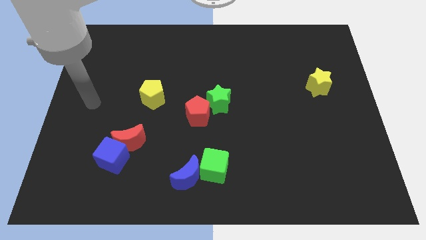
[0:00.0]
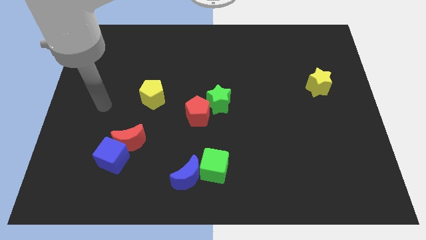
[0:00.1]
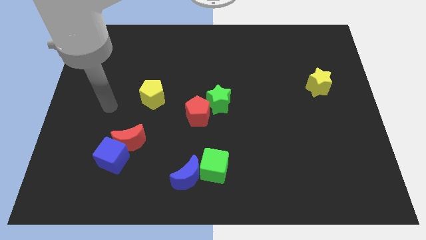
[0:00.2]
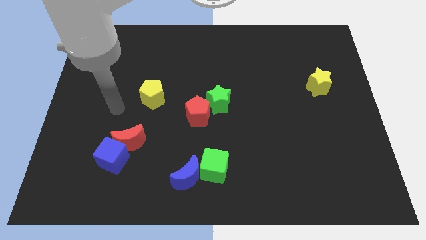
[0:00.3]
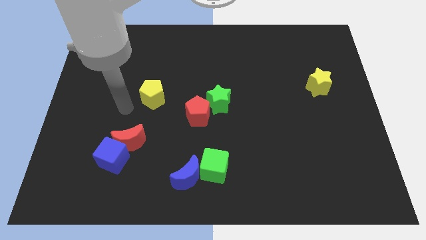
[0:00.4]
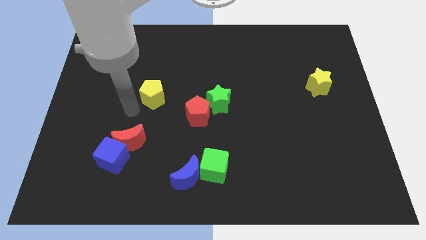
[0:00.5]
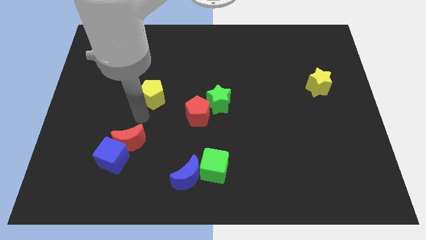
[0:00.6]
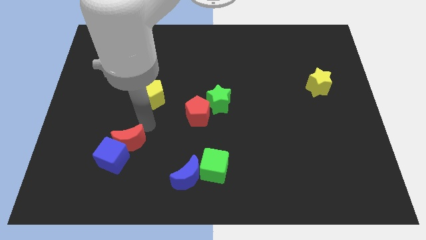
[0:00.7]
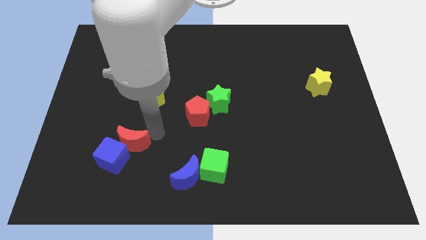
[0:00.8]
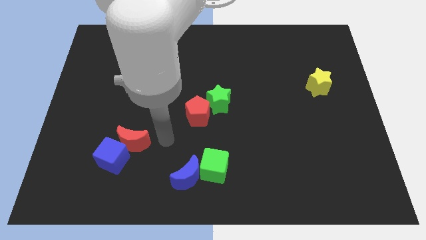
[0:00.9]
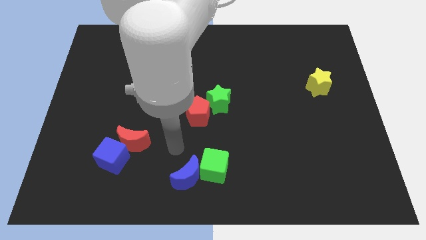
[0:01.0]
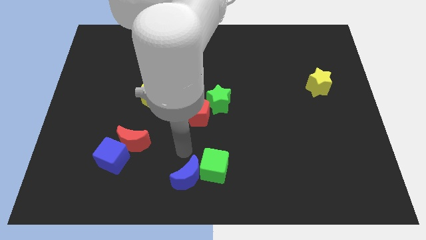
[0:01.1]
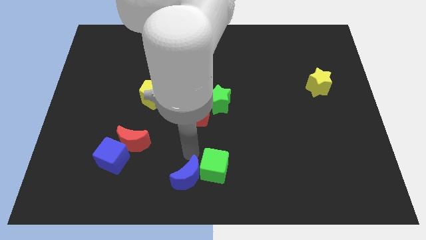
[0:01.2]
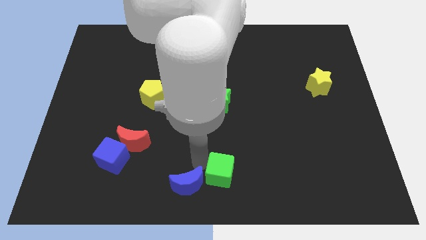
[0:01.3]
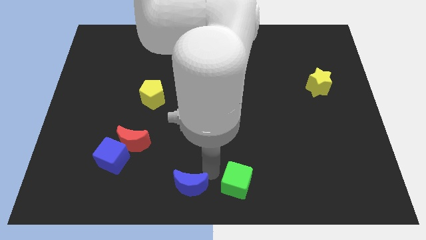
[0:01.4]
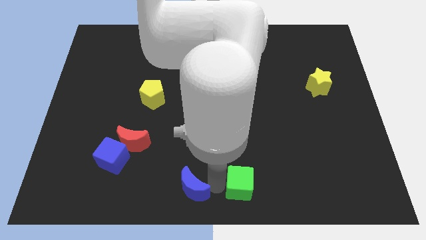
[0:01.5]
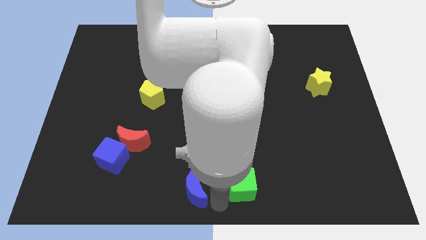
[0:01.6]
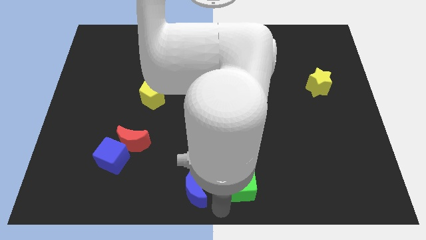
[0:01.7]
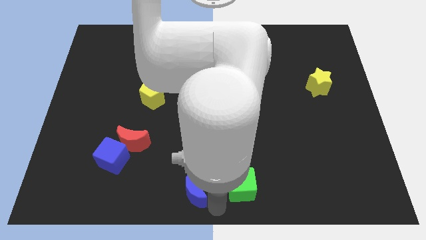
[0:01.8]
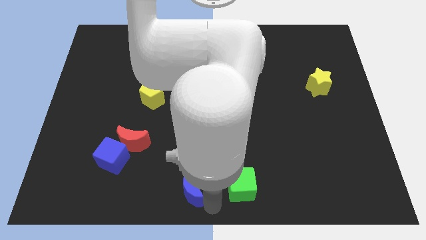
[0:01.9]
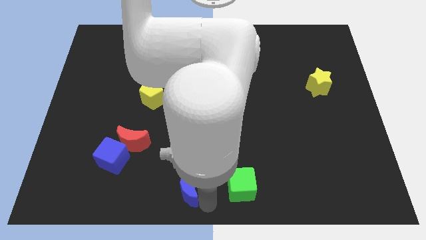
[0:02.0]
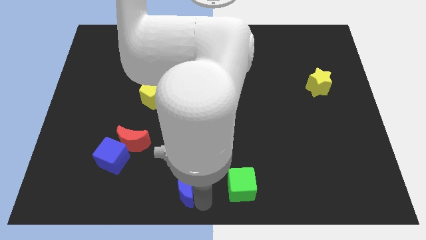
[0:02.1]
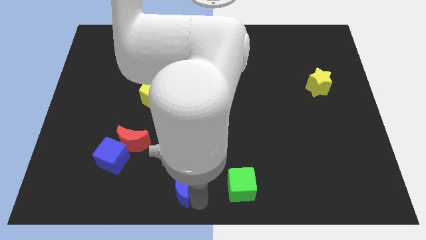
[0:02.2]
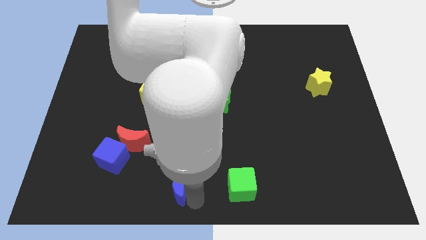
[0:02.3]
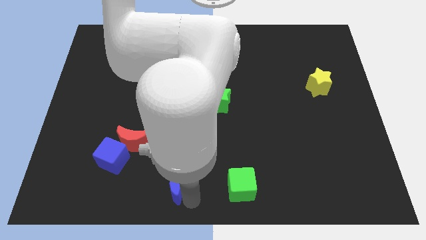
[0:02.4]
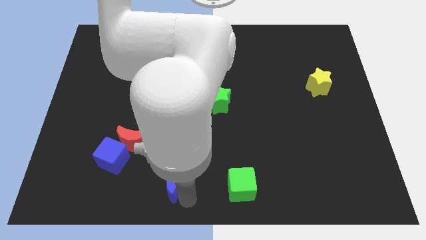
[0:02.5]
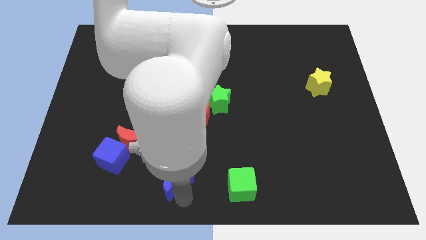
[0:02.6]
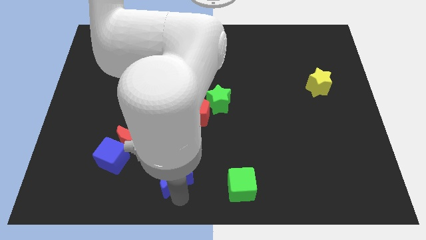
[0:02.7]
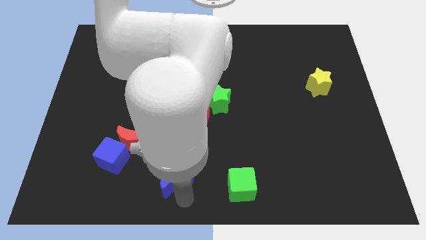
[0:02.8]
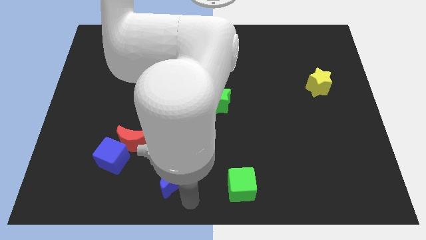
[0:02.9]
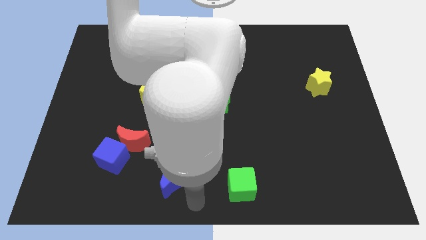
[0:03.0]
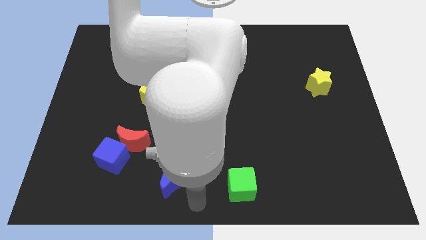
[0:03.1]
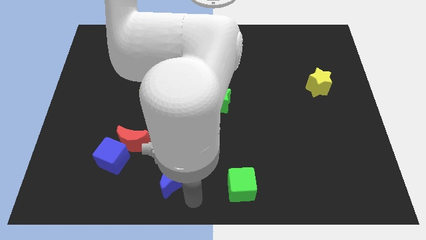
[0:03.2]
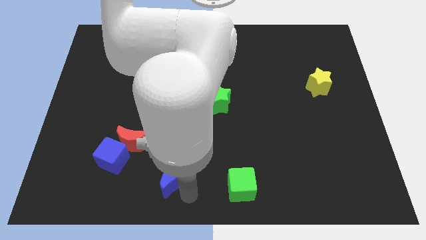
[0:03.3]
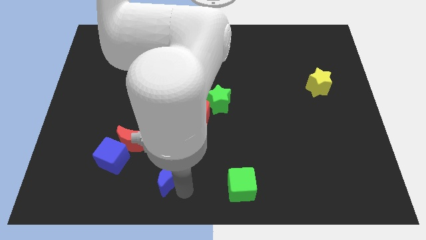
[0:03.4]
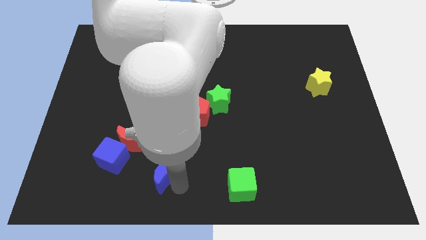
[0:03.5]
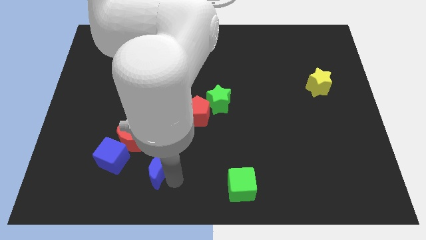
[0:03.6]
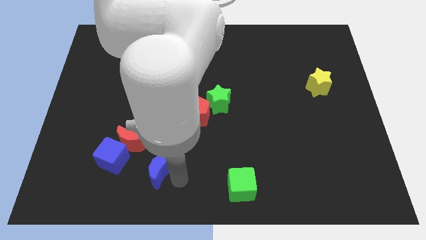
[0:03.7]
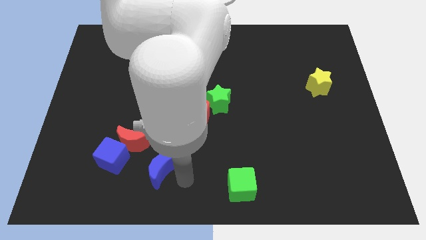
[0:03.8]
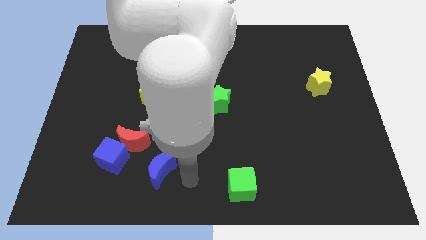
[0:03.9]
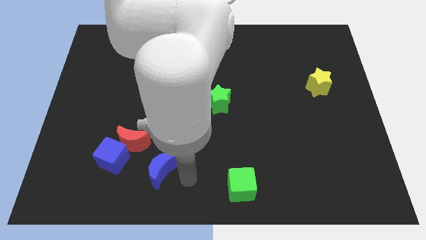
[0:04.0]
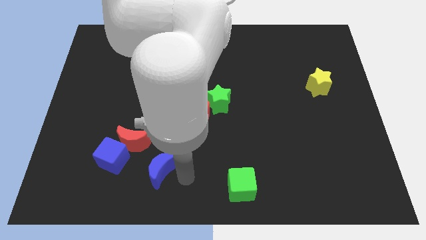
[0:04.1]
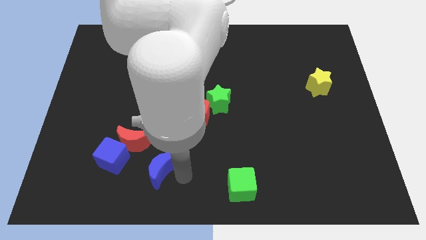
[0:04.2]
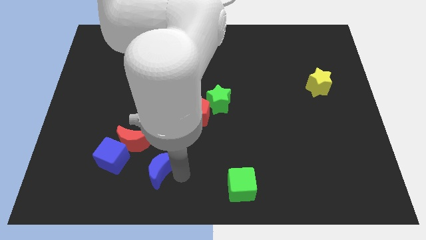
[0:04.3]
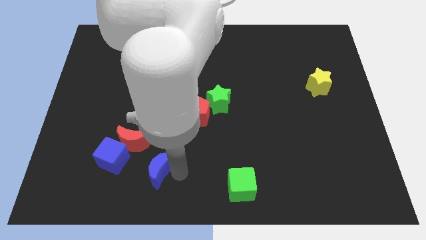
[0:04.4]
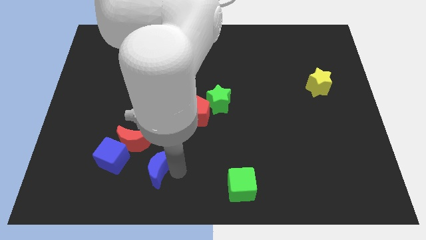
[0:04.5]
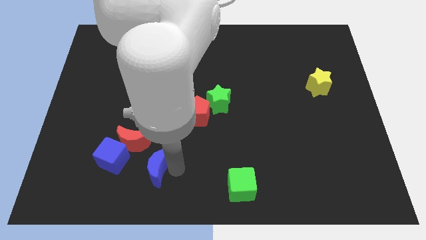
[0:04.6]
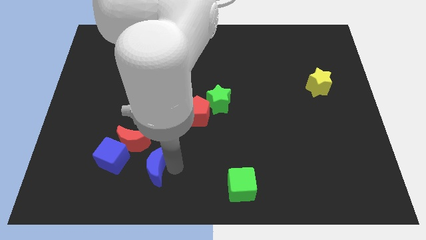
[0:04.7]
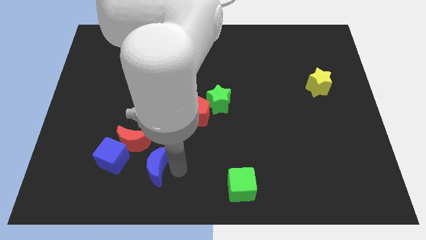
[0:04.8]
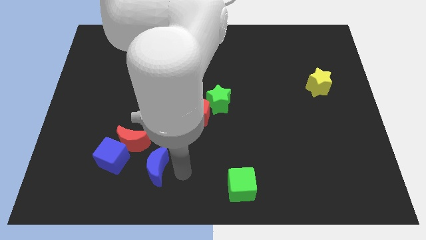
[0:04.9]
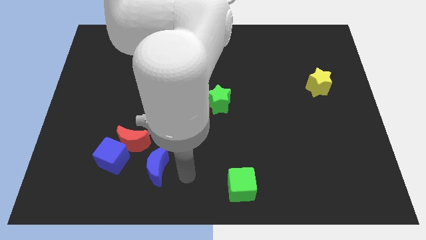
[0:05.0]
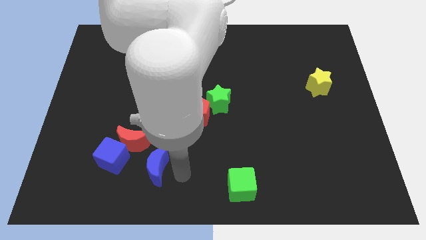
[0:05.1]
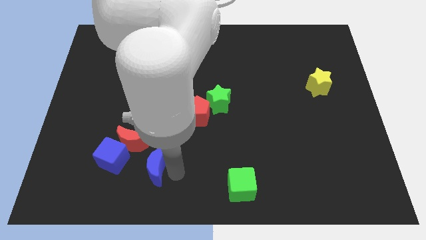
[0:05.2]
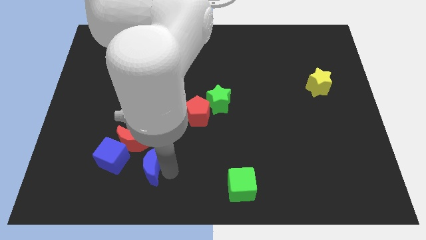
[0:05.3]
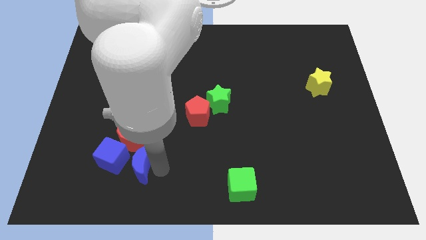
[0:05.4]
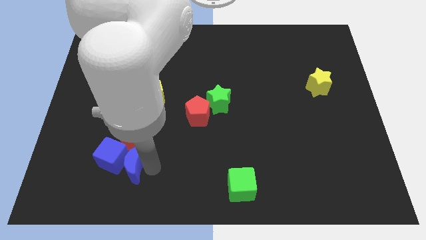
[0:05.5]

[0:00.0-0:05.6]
push the blue moon towards the blue cube

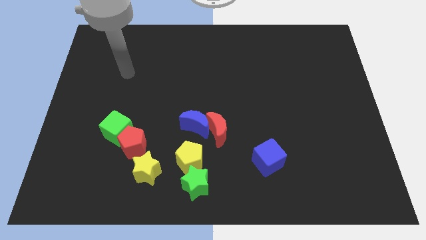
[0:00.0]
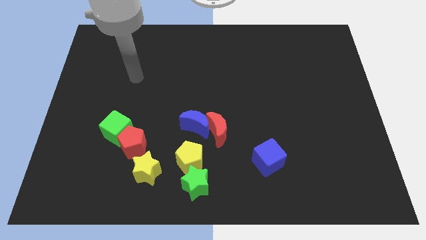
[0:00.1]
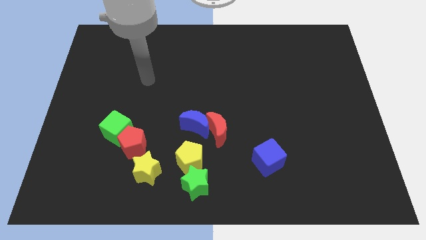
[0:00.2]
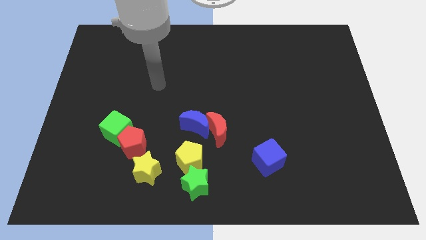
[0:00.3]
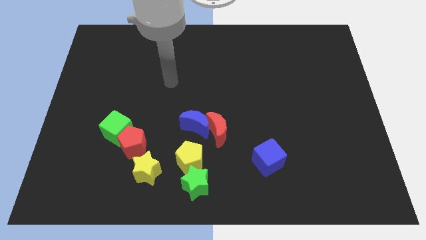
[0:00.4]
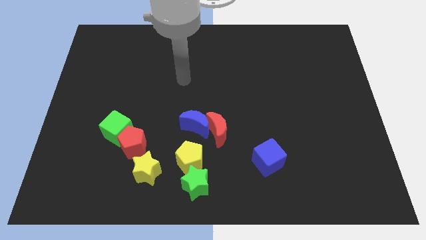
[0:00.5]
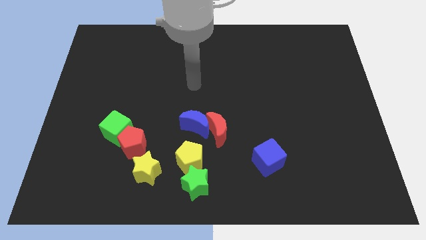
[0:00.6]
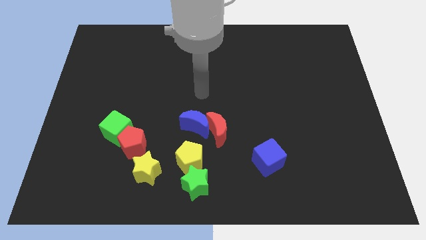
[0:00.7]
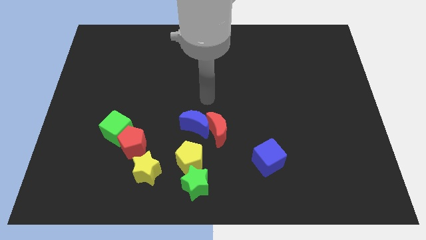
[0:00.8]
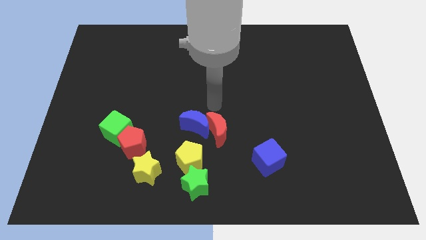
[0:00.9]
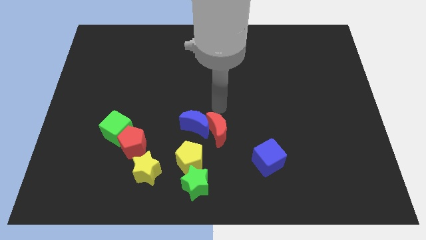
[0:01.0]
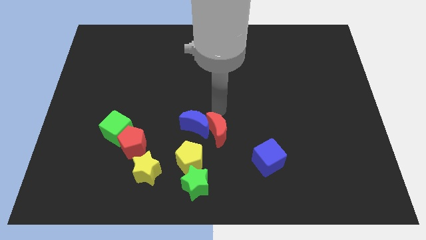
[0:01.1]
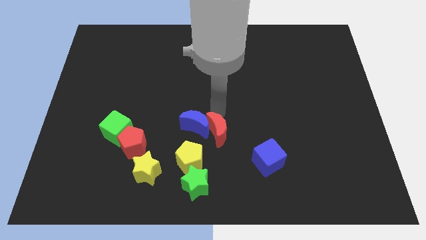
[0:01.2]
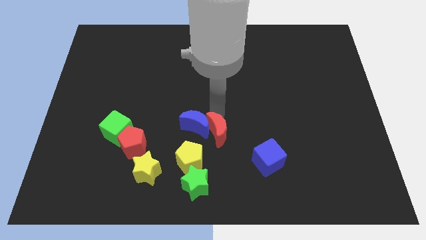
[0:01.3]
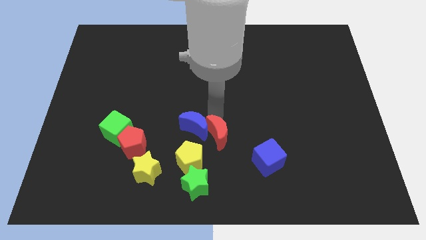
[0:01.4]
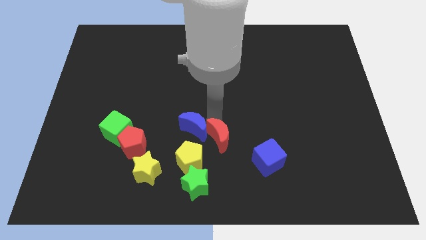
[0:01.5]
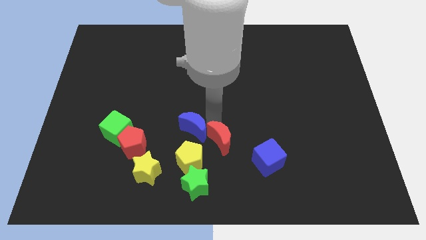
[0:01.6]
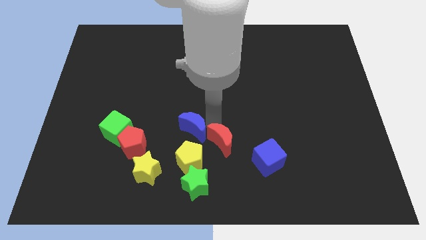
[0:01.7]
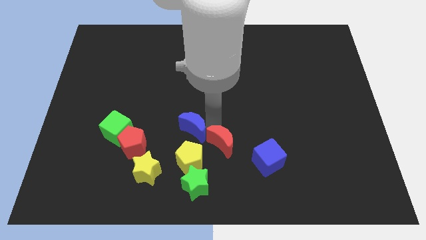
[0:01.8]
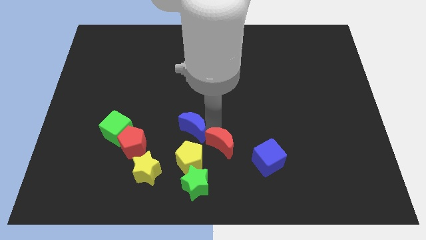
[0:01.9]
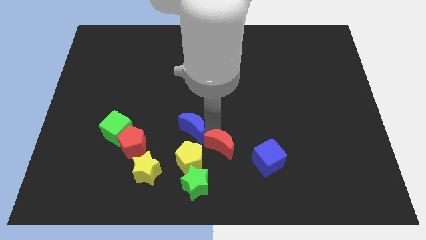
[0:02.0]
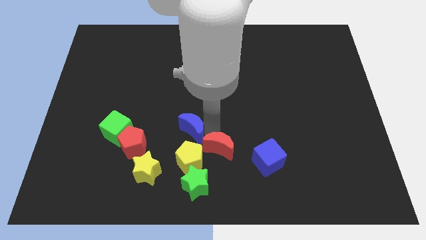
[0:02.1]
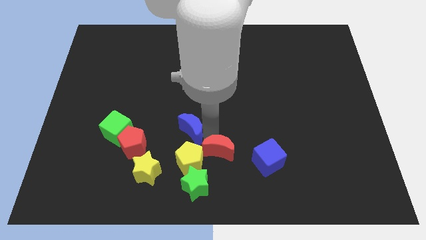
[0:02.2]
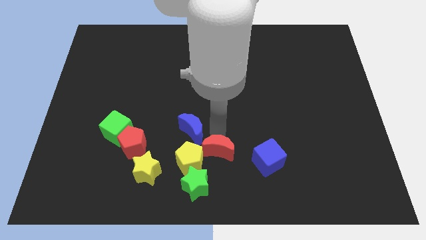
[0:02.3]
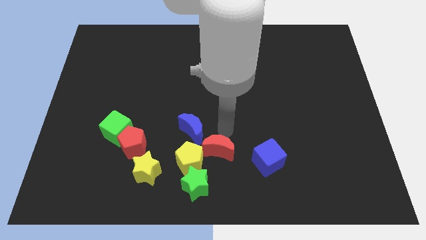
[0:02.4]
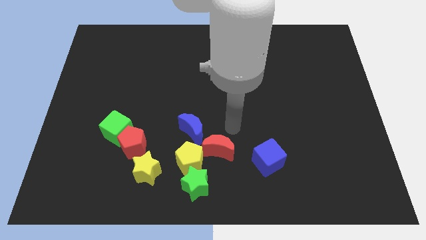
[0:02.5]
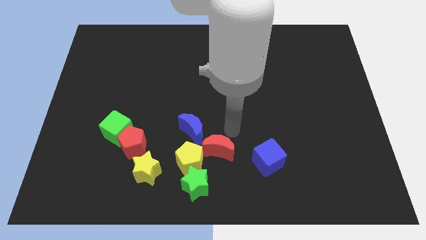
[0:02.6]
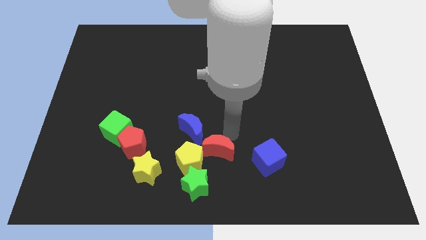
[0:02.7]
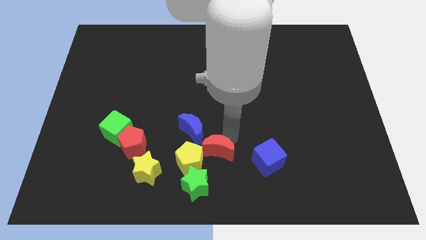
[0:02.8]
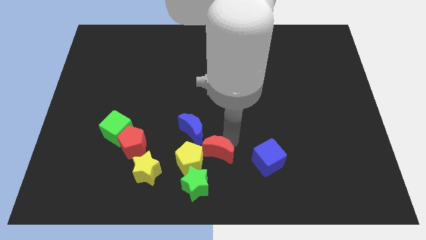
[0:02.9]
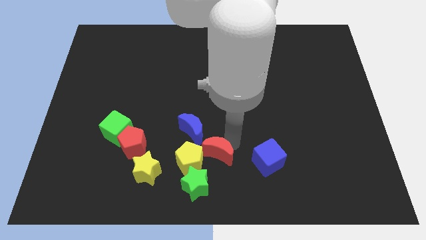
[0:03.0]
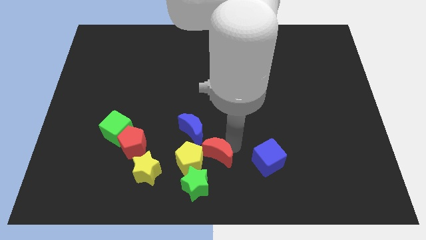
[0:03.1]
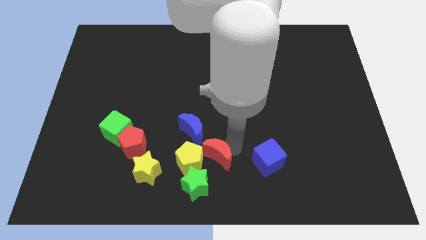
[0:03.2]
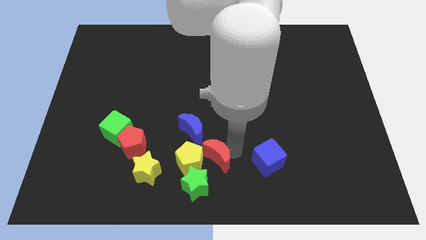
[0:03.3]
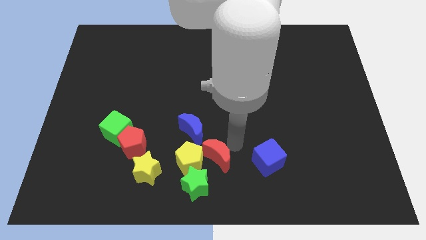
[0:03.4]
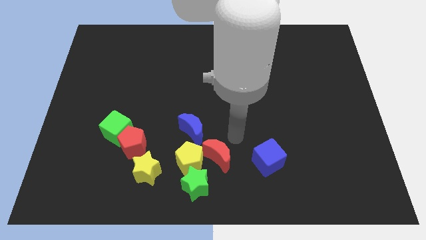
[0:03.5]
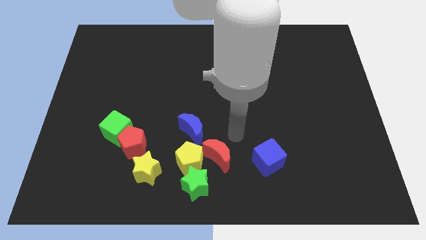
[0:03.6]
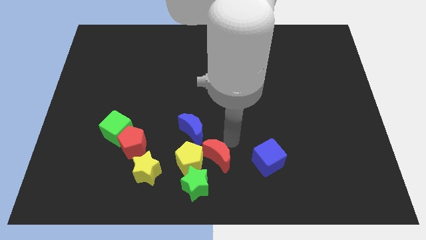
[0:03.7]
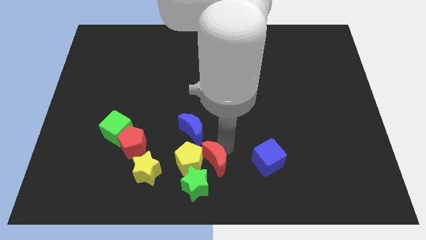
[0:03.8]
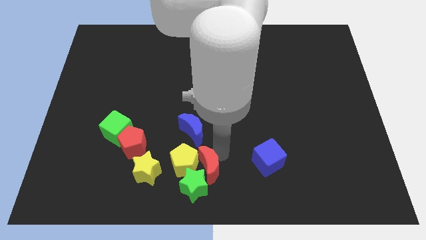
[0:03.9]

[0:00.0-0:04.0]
slide the red moon to the green star
